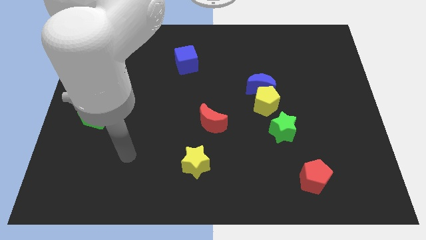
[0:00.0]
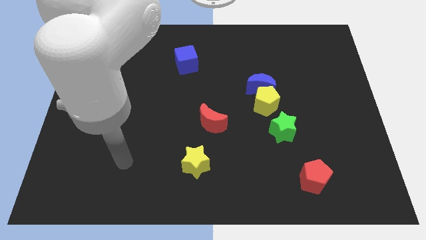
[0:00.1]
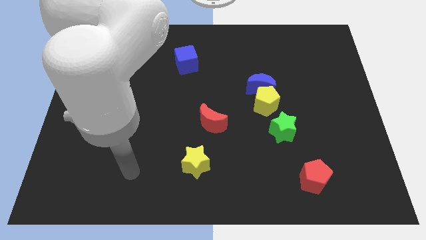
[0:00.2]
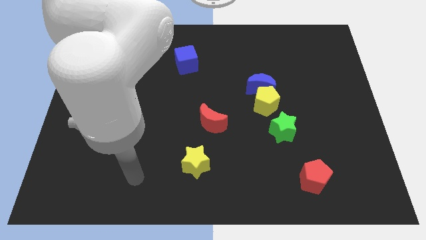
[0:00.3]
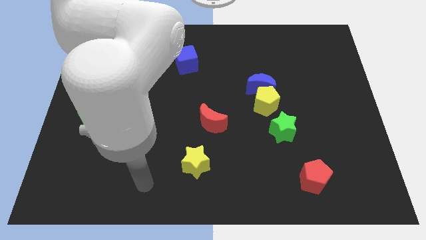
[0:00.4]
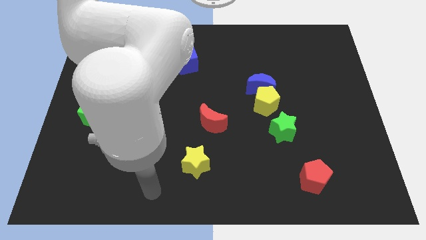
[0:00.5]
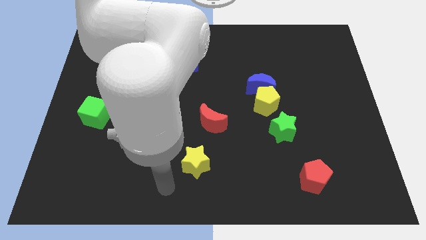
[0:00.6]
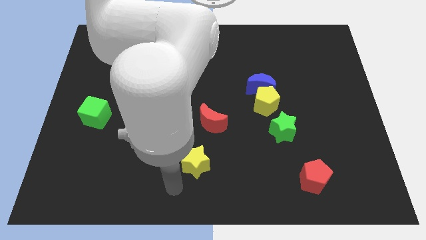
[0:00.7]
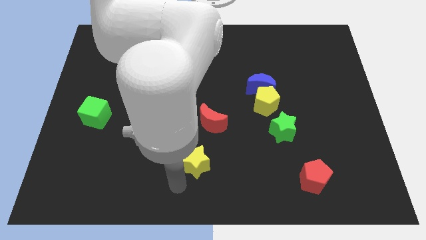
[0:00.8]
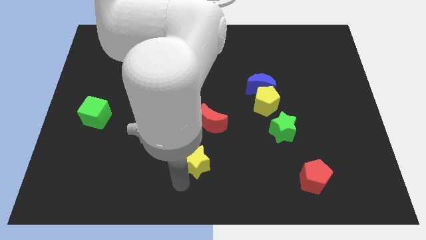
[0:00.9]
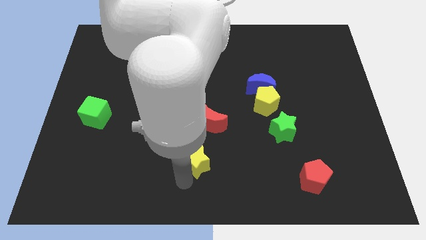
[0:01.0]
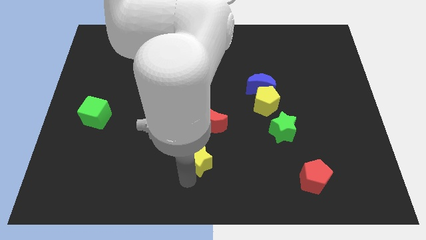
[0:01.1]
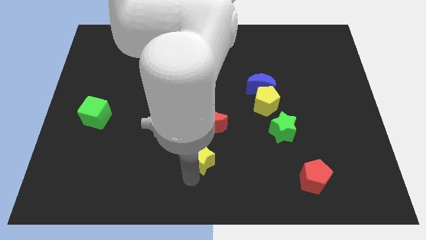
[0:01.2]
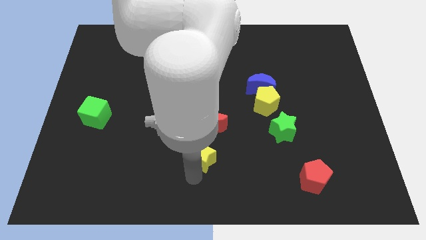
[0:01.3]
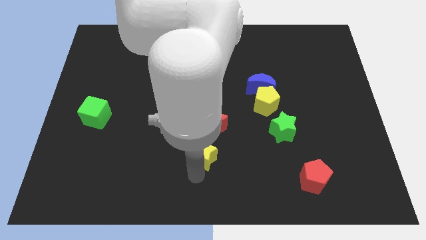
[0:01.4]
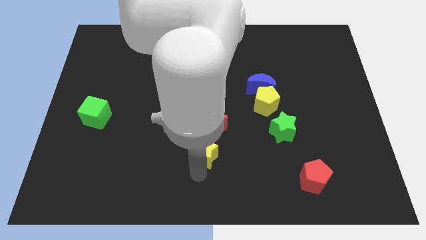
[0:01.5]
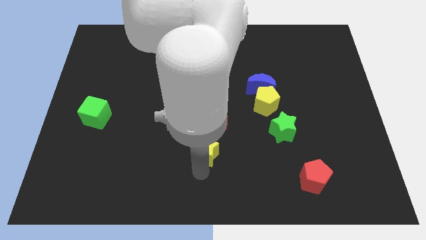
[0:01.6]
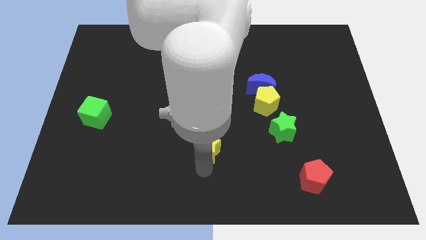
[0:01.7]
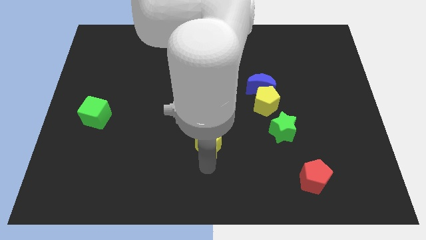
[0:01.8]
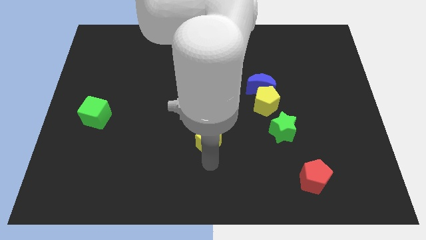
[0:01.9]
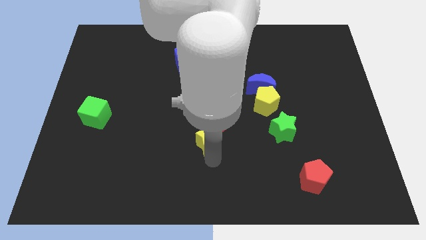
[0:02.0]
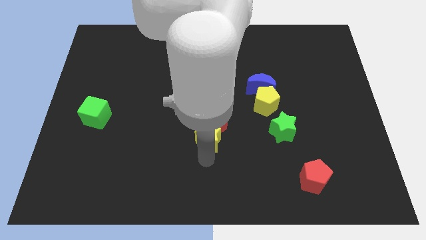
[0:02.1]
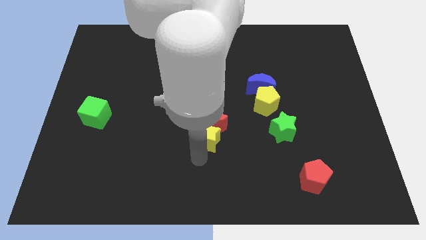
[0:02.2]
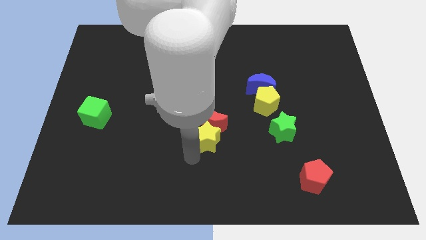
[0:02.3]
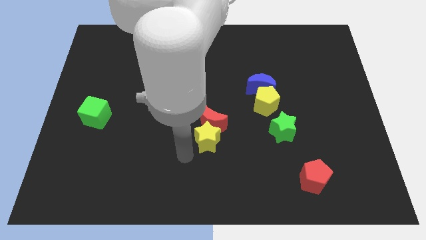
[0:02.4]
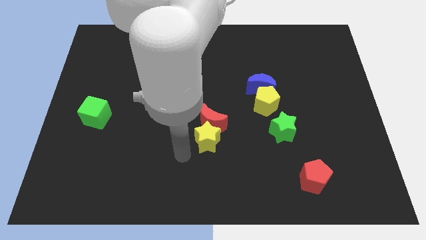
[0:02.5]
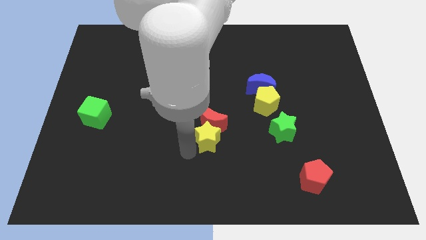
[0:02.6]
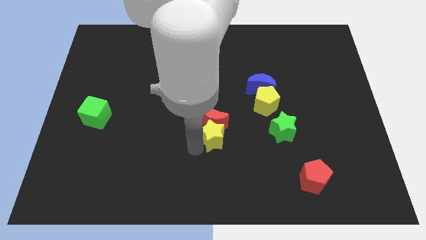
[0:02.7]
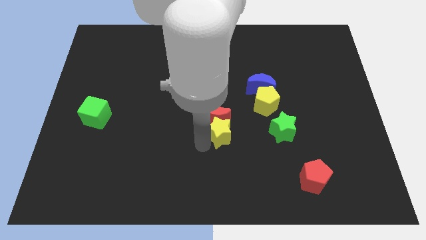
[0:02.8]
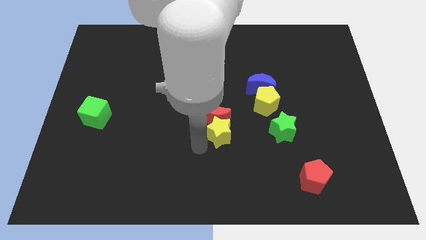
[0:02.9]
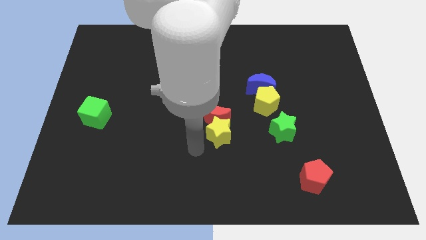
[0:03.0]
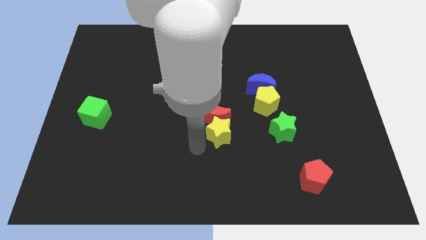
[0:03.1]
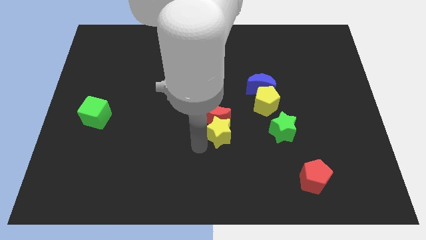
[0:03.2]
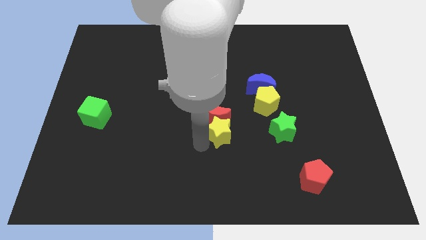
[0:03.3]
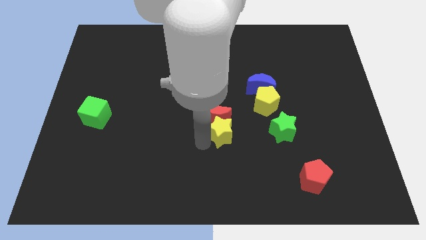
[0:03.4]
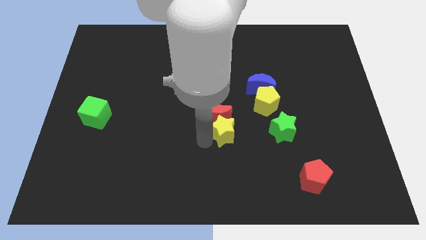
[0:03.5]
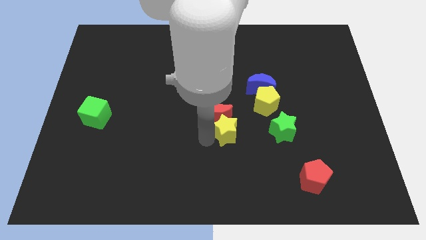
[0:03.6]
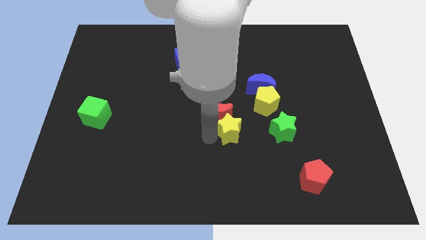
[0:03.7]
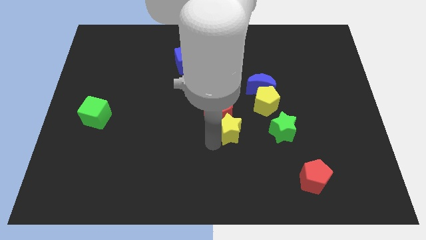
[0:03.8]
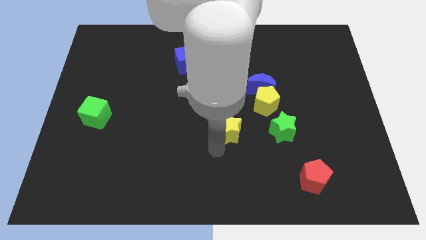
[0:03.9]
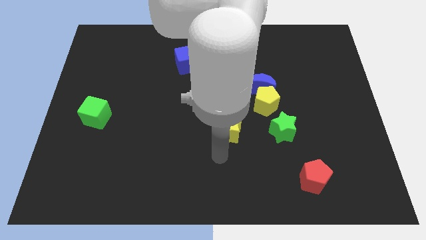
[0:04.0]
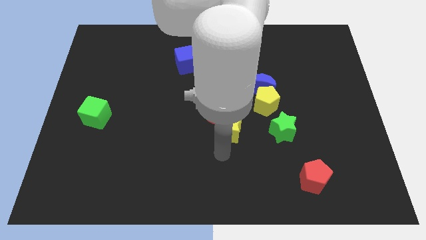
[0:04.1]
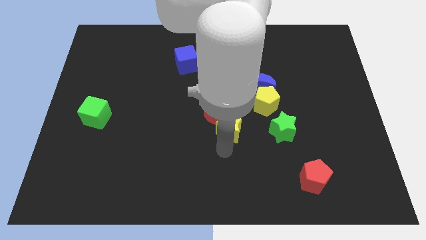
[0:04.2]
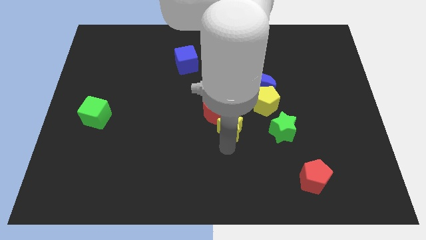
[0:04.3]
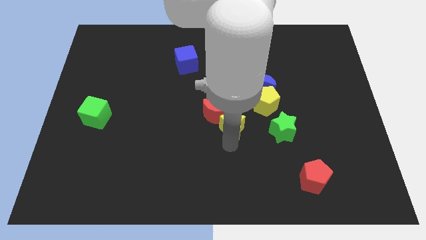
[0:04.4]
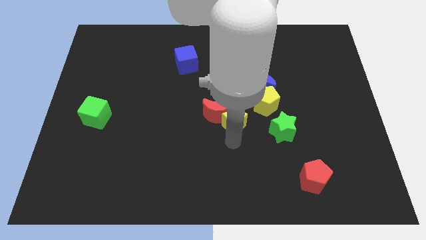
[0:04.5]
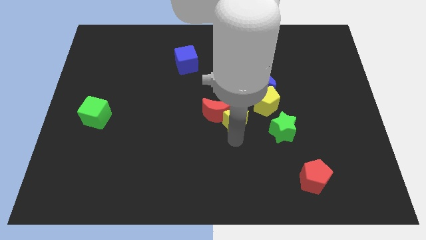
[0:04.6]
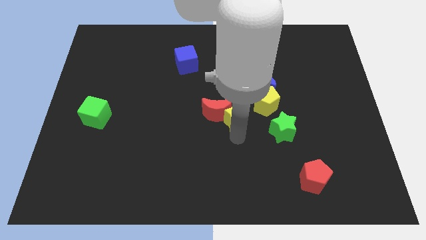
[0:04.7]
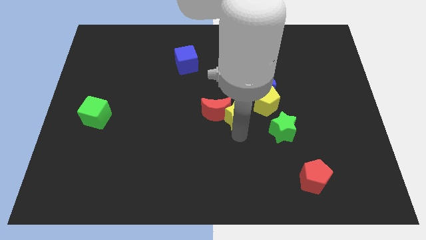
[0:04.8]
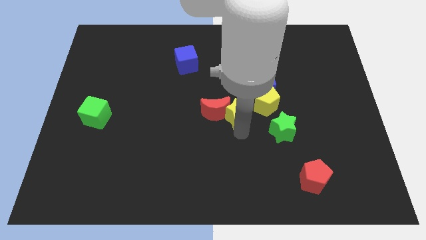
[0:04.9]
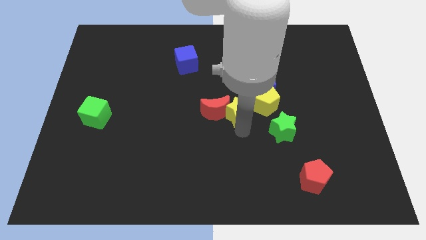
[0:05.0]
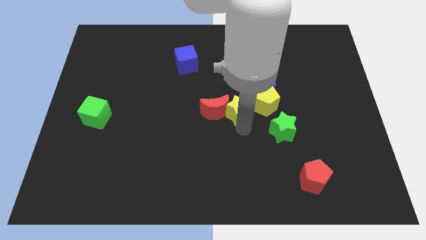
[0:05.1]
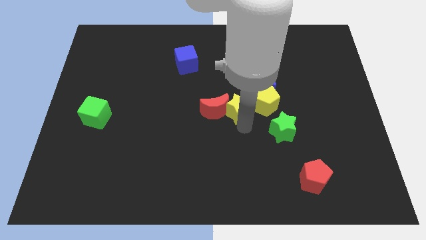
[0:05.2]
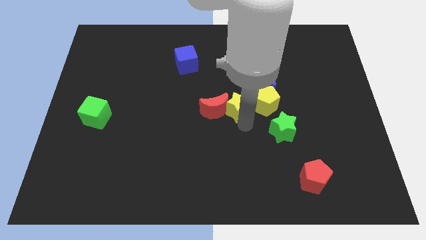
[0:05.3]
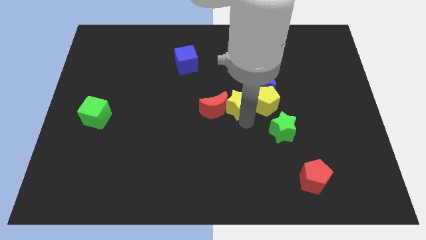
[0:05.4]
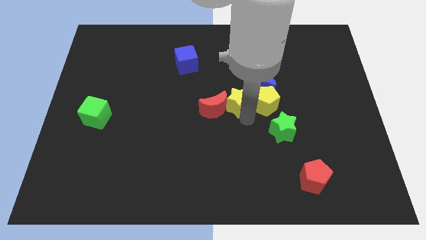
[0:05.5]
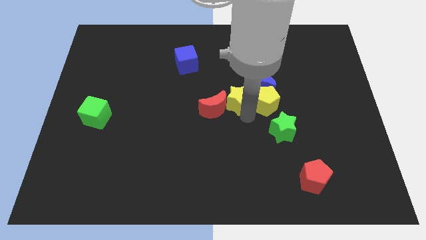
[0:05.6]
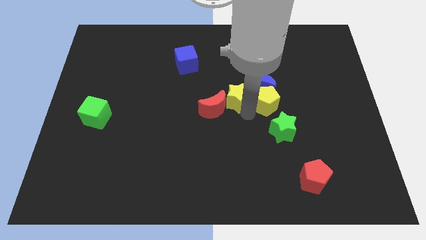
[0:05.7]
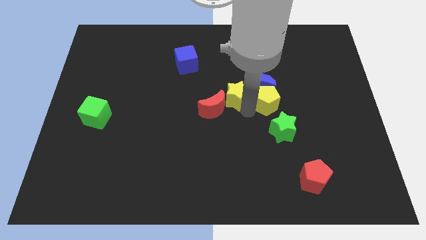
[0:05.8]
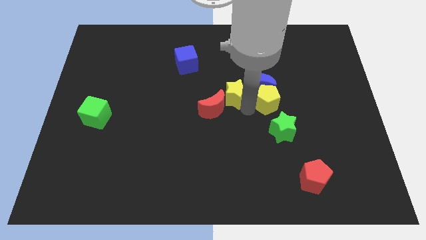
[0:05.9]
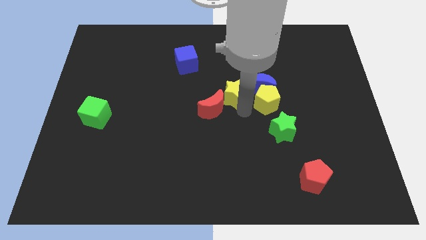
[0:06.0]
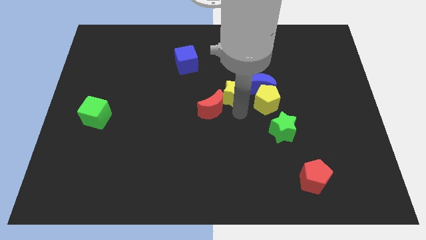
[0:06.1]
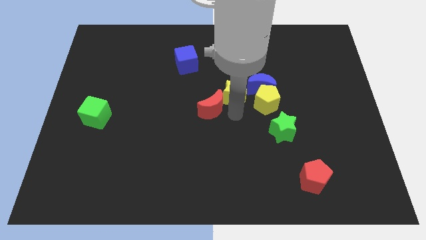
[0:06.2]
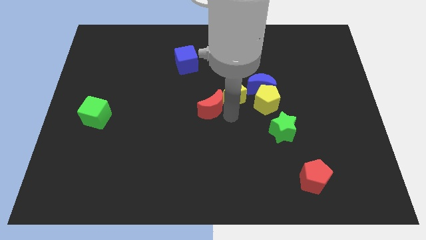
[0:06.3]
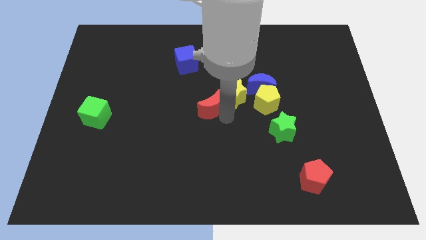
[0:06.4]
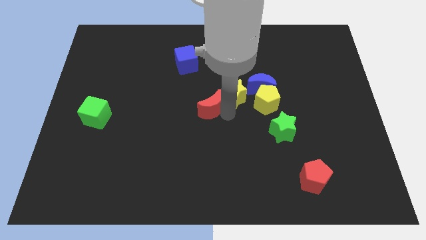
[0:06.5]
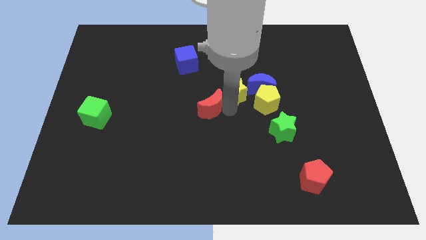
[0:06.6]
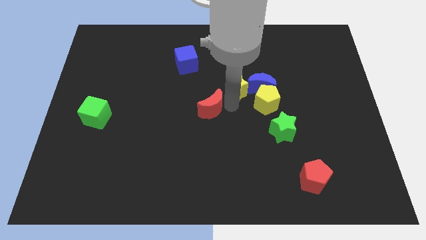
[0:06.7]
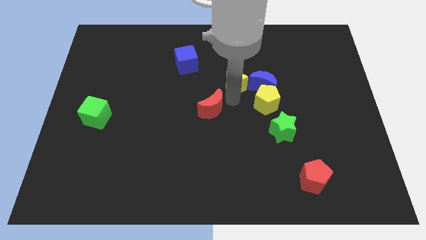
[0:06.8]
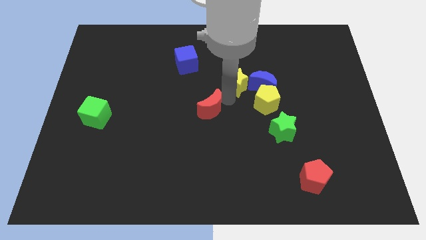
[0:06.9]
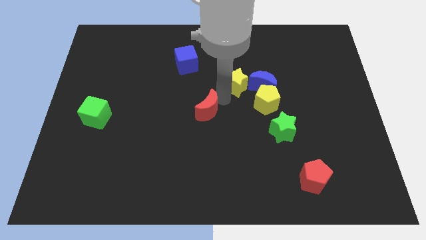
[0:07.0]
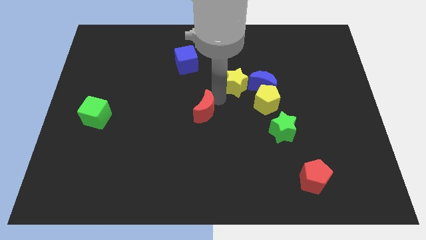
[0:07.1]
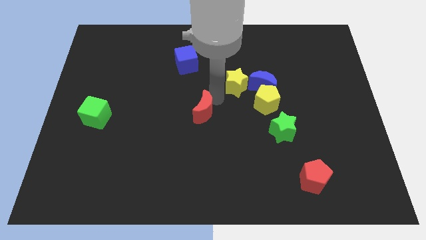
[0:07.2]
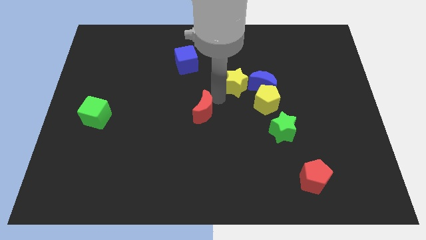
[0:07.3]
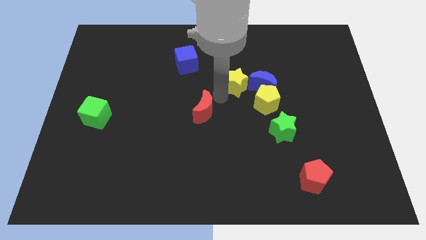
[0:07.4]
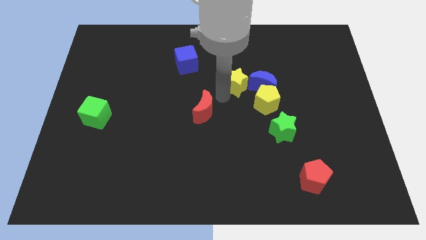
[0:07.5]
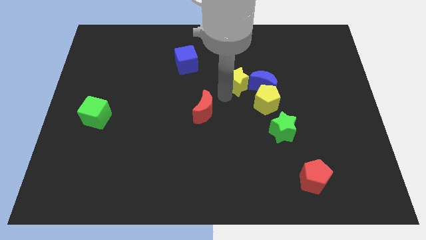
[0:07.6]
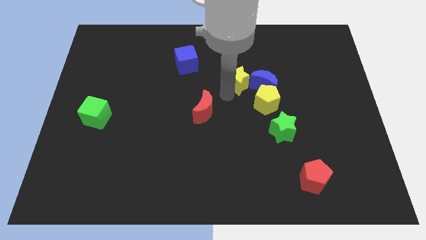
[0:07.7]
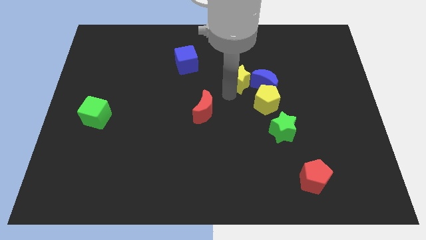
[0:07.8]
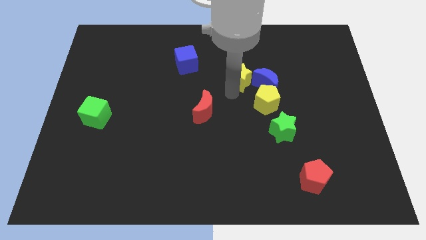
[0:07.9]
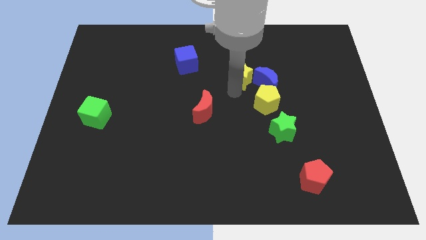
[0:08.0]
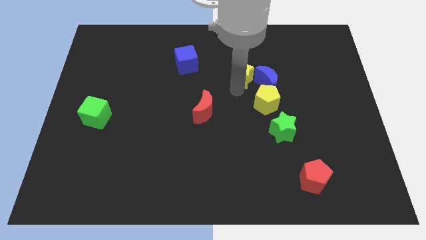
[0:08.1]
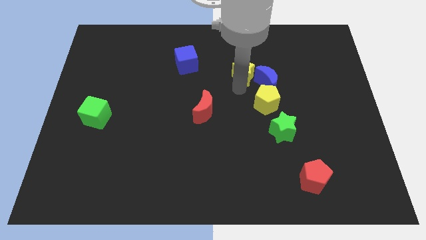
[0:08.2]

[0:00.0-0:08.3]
put the yellow star to the top side of the yellow pentagon
